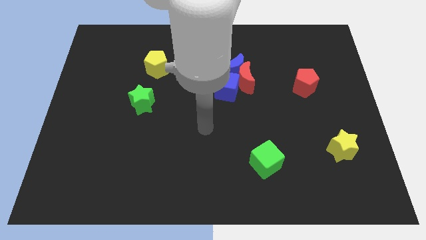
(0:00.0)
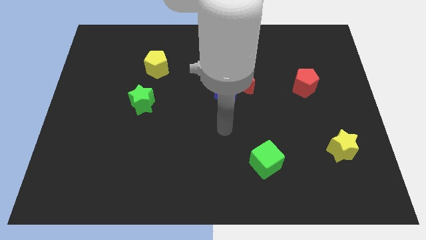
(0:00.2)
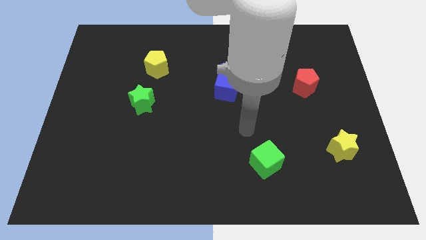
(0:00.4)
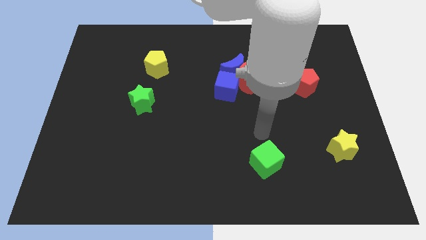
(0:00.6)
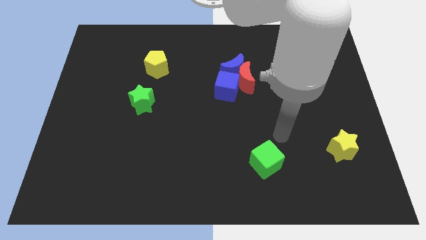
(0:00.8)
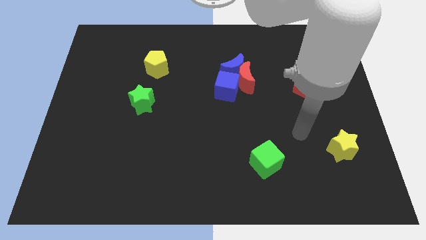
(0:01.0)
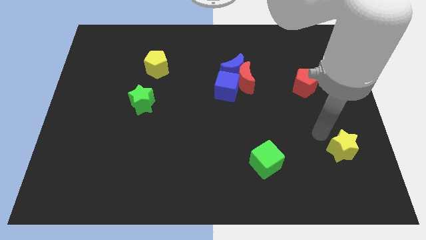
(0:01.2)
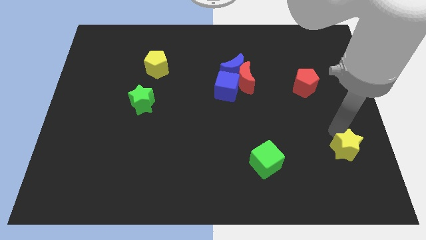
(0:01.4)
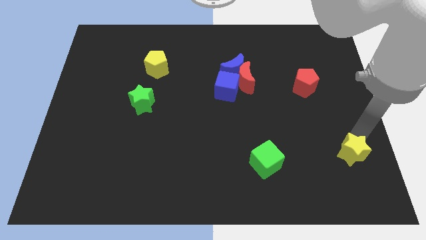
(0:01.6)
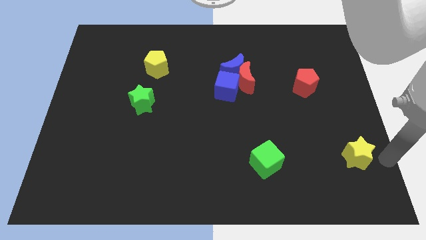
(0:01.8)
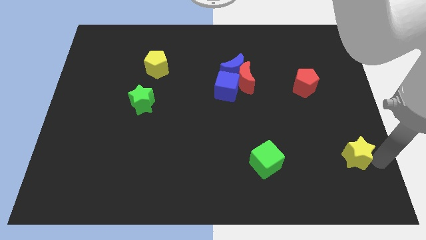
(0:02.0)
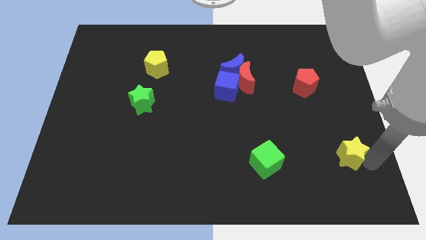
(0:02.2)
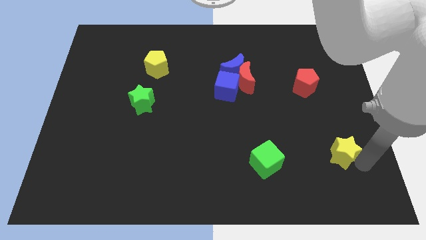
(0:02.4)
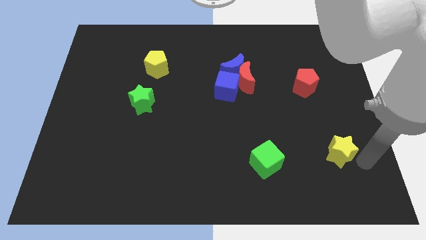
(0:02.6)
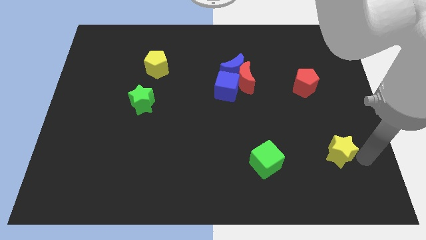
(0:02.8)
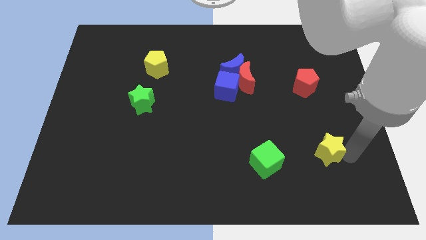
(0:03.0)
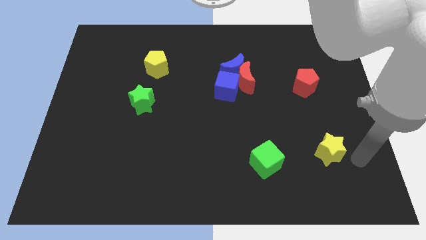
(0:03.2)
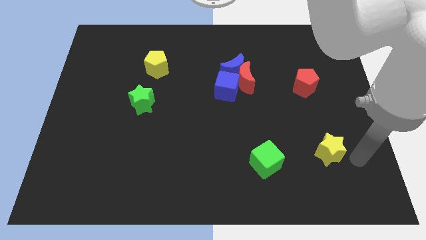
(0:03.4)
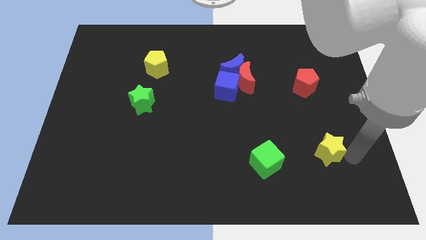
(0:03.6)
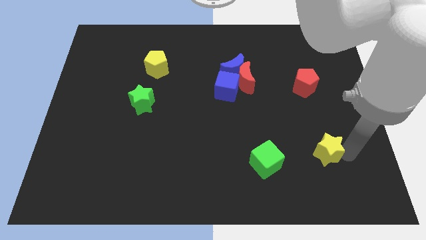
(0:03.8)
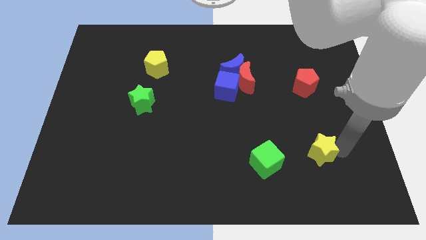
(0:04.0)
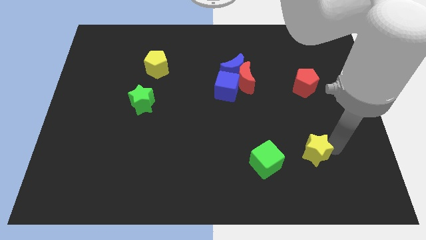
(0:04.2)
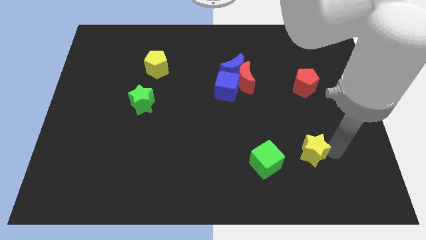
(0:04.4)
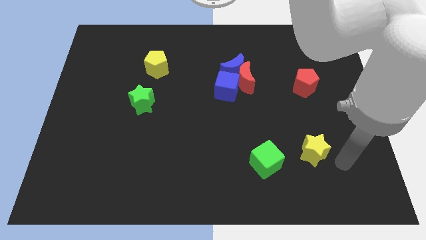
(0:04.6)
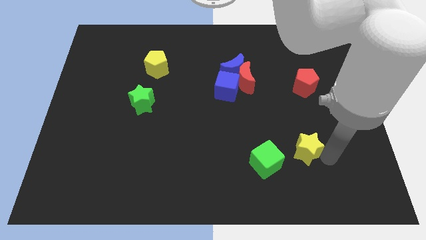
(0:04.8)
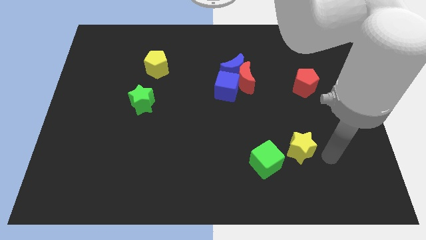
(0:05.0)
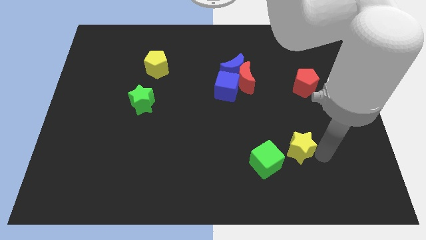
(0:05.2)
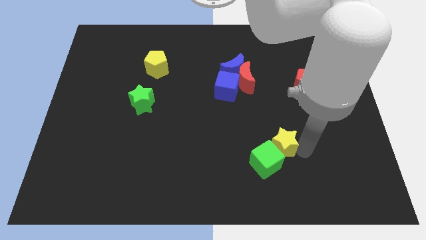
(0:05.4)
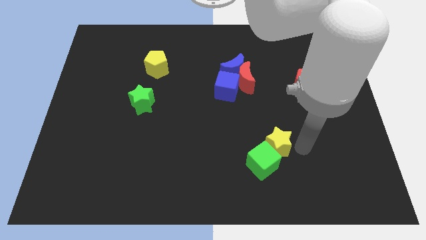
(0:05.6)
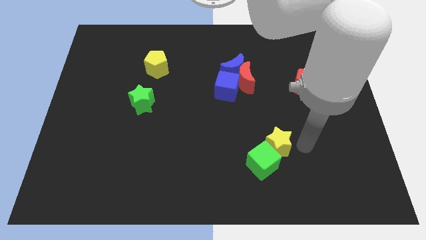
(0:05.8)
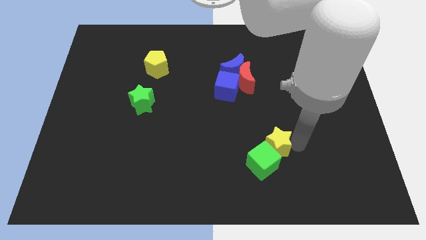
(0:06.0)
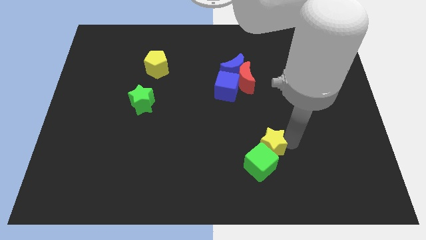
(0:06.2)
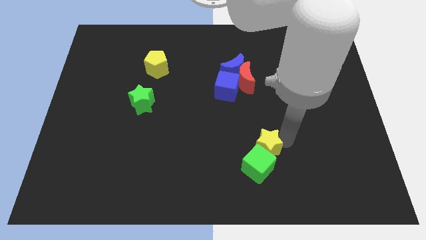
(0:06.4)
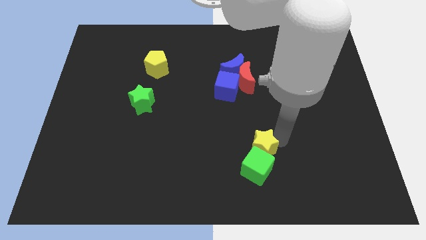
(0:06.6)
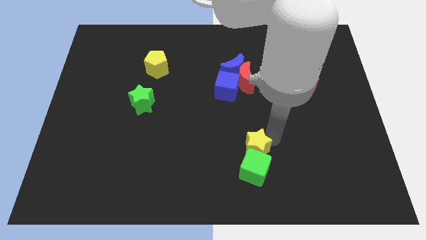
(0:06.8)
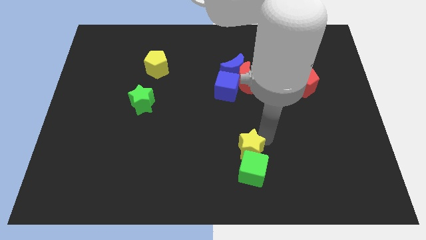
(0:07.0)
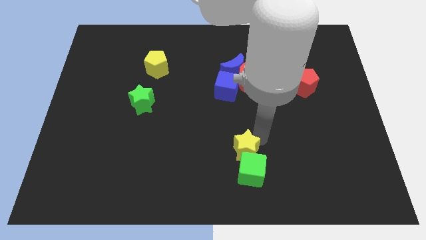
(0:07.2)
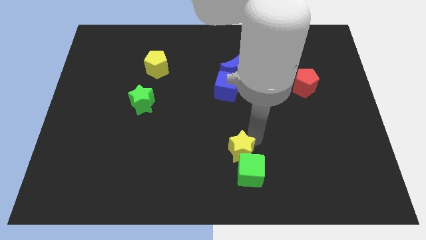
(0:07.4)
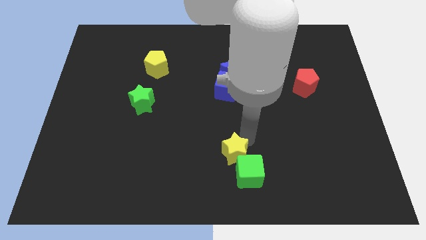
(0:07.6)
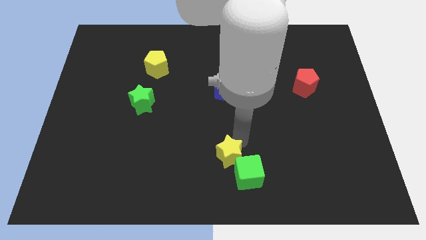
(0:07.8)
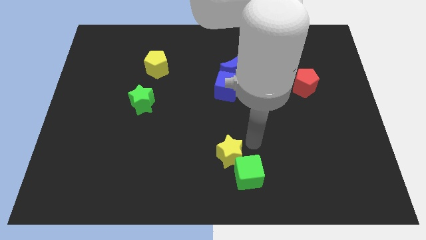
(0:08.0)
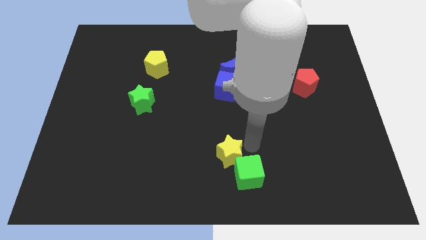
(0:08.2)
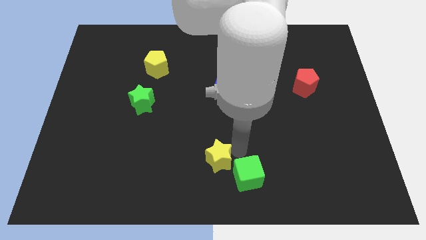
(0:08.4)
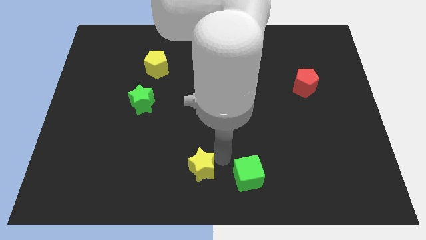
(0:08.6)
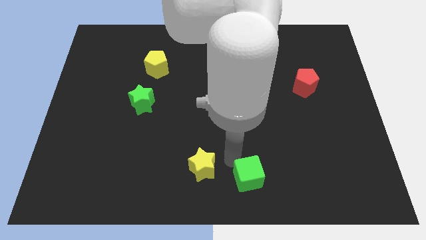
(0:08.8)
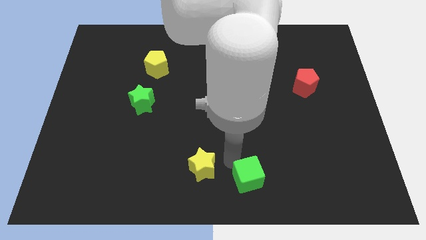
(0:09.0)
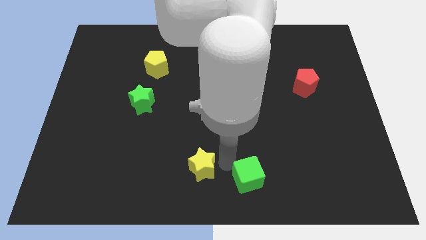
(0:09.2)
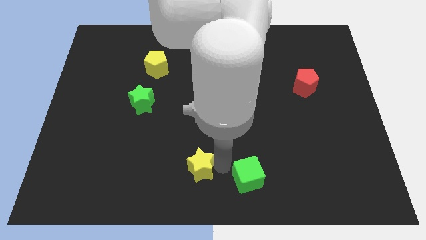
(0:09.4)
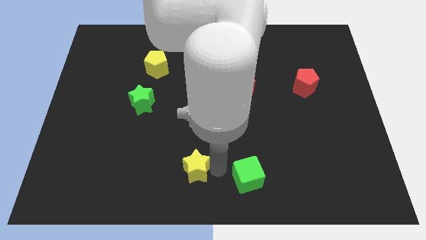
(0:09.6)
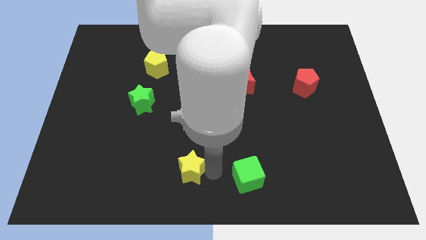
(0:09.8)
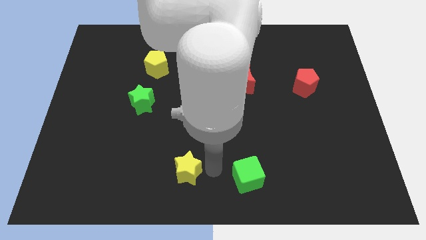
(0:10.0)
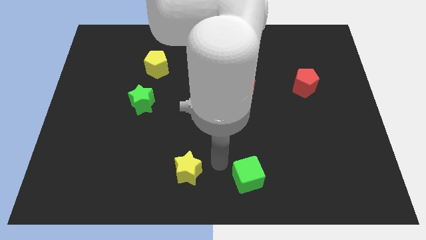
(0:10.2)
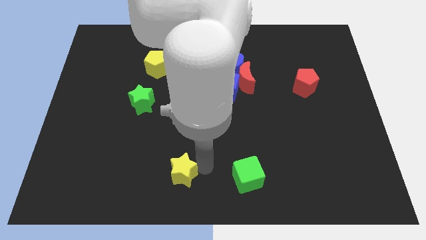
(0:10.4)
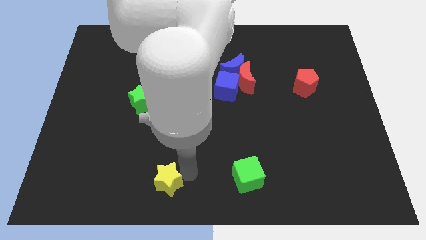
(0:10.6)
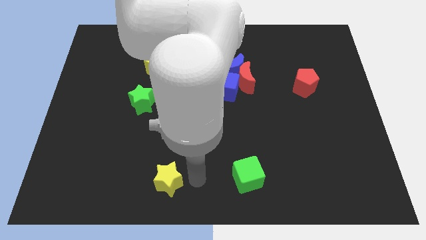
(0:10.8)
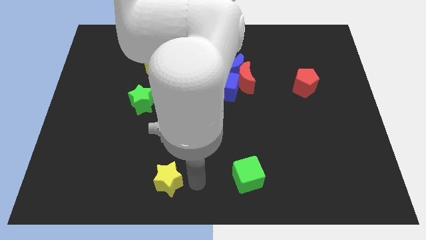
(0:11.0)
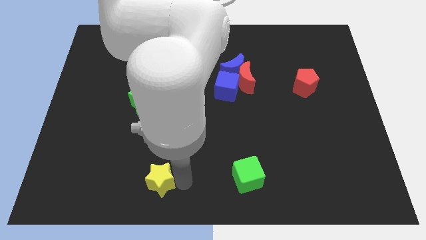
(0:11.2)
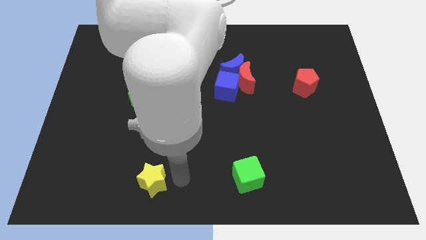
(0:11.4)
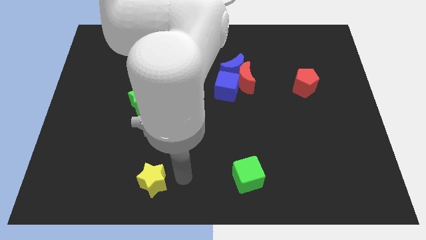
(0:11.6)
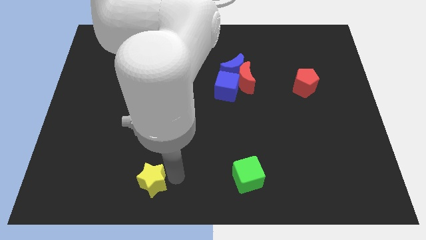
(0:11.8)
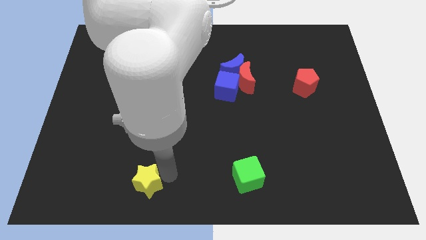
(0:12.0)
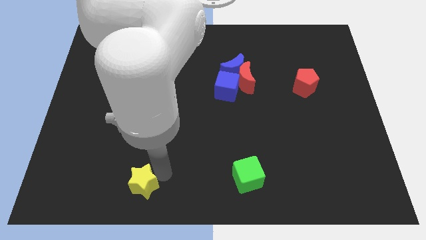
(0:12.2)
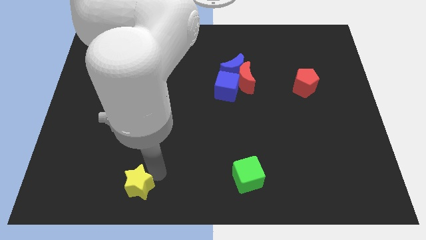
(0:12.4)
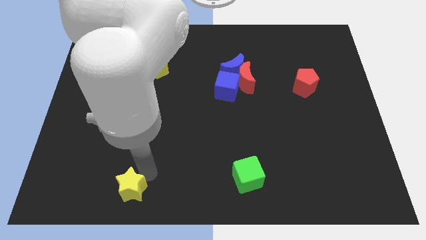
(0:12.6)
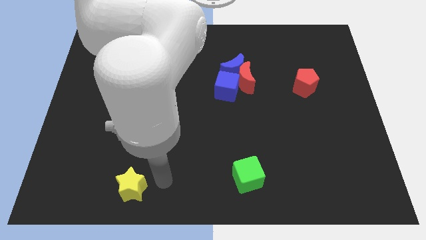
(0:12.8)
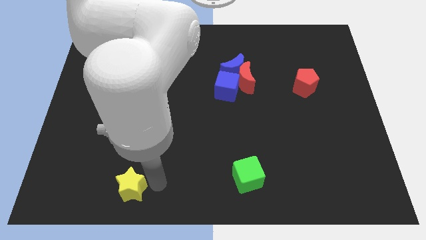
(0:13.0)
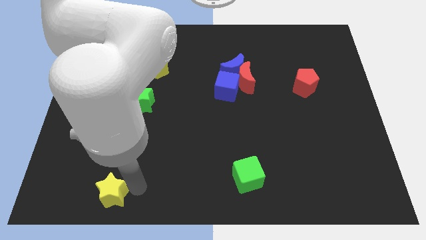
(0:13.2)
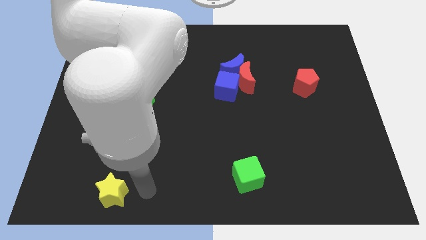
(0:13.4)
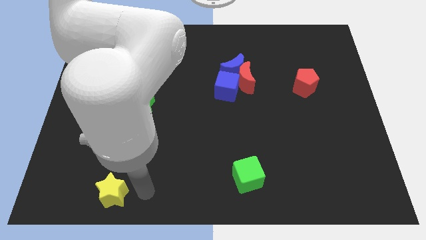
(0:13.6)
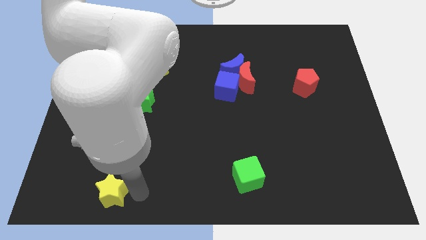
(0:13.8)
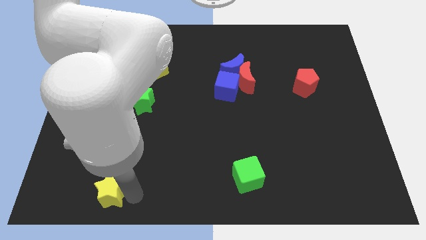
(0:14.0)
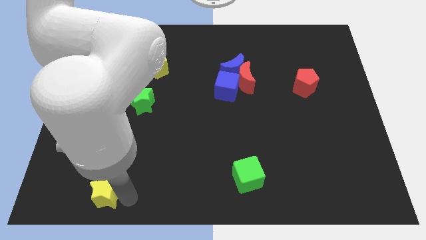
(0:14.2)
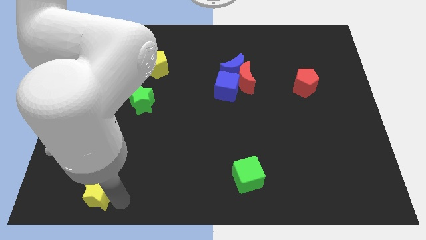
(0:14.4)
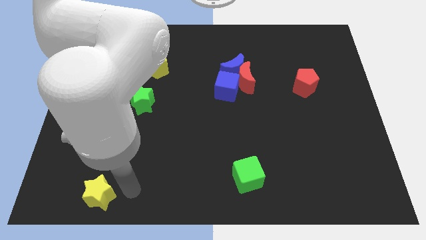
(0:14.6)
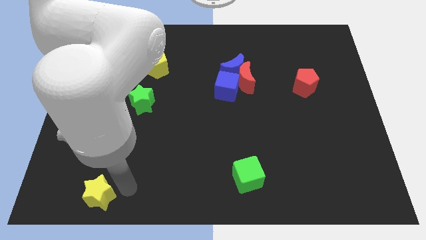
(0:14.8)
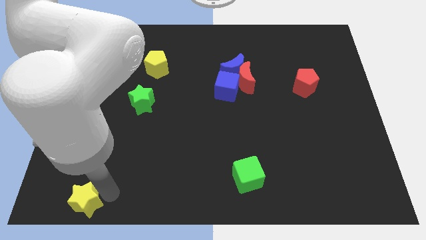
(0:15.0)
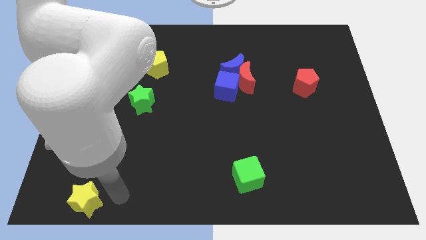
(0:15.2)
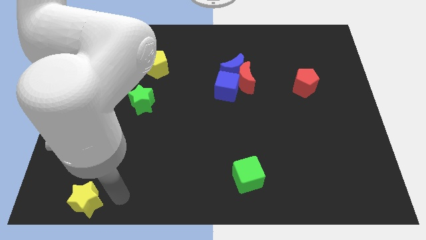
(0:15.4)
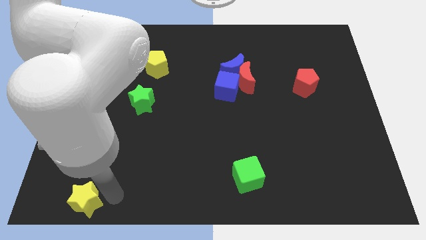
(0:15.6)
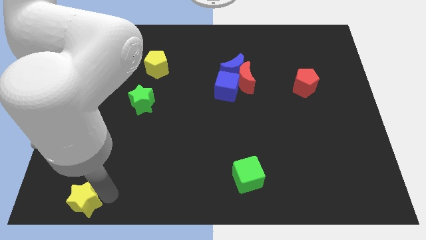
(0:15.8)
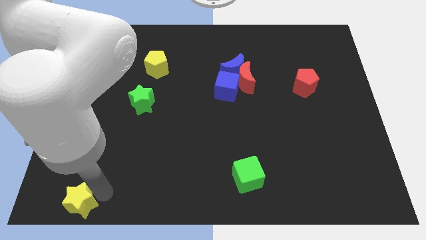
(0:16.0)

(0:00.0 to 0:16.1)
slide the yellow star to the bottom left corner
